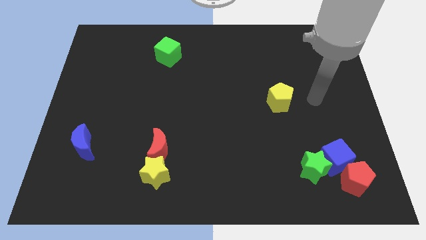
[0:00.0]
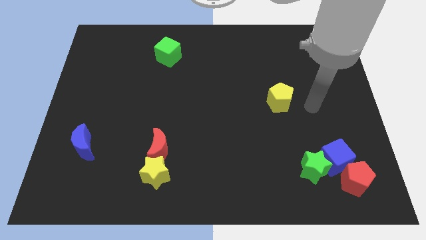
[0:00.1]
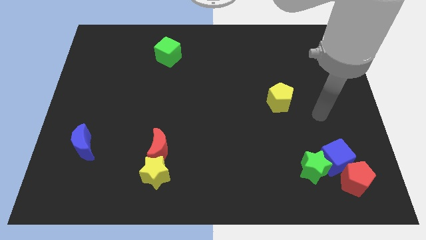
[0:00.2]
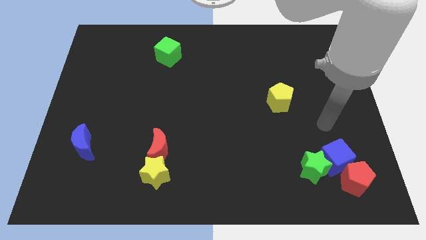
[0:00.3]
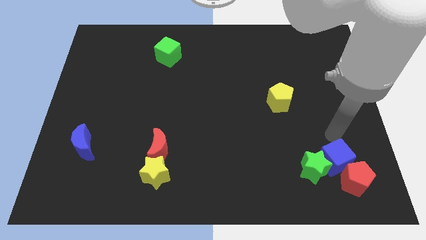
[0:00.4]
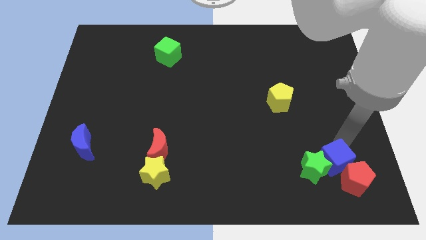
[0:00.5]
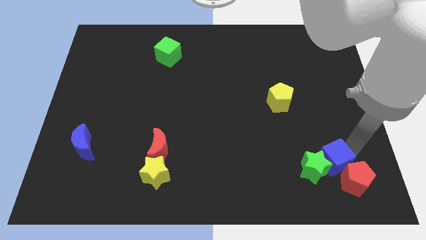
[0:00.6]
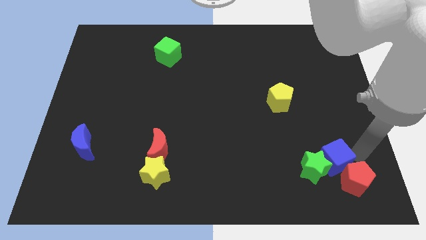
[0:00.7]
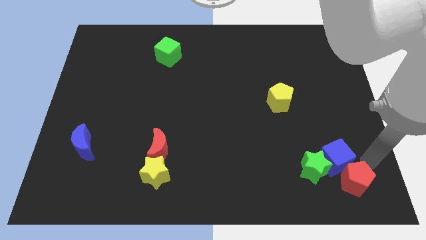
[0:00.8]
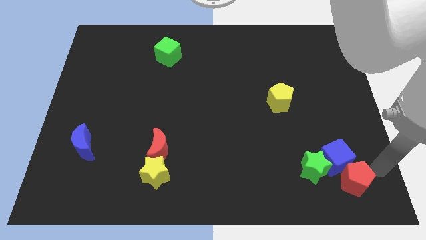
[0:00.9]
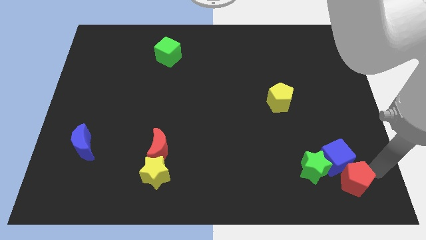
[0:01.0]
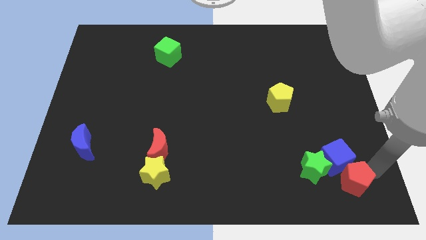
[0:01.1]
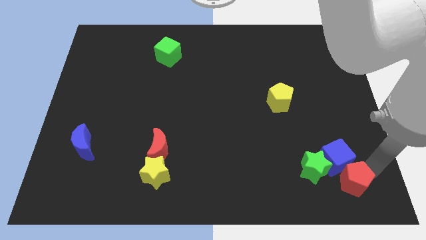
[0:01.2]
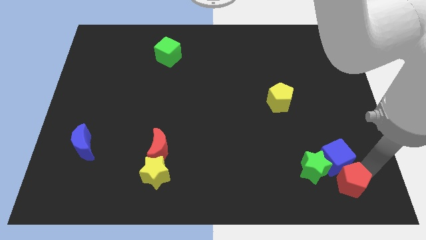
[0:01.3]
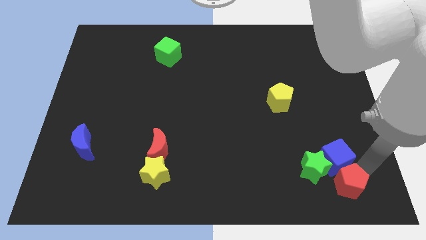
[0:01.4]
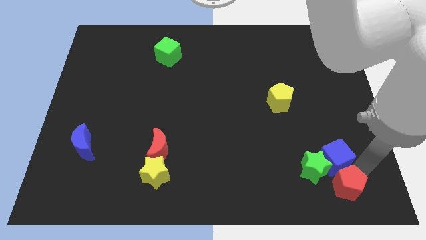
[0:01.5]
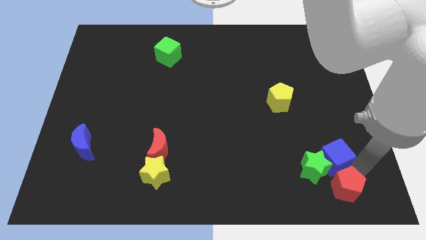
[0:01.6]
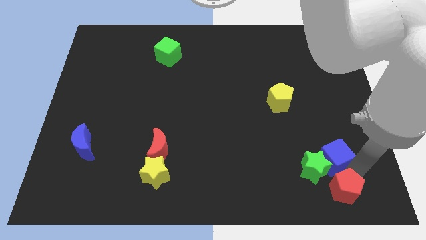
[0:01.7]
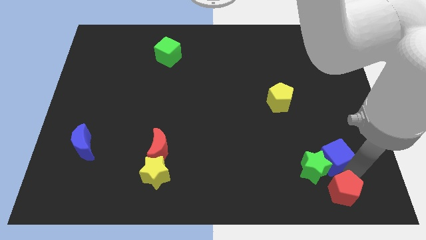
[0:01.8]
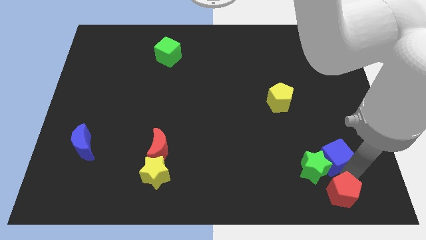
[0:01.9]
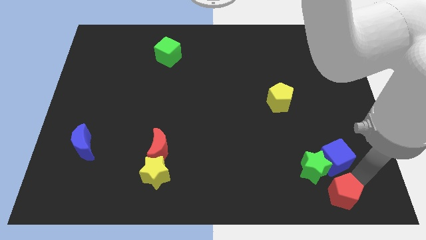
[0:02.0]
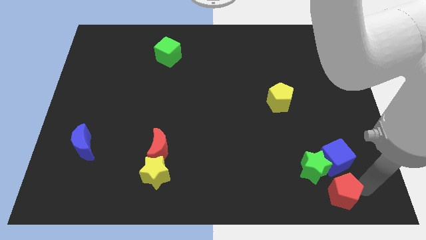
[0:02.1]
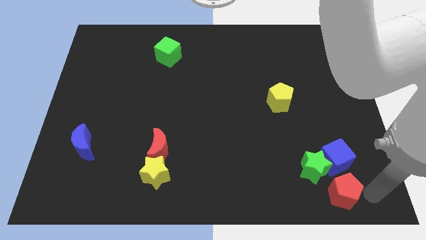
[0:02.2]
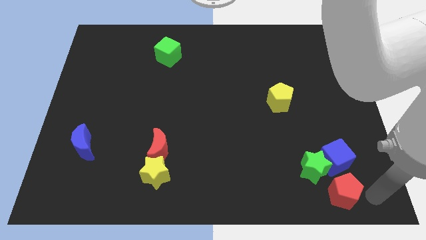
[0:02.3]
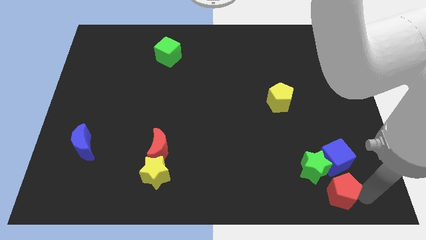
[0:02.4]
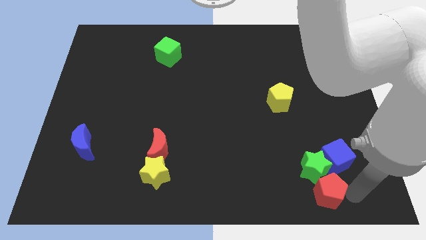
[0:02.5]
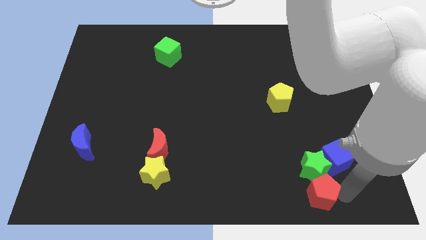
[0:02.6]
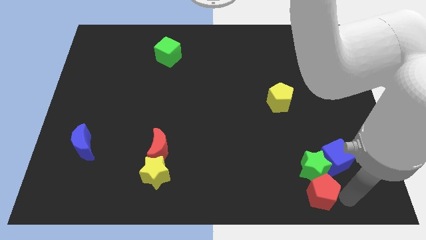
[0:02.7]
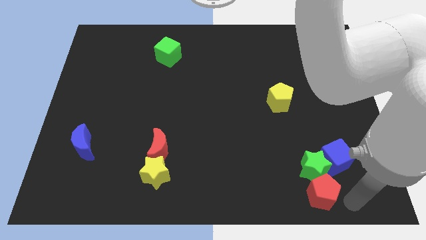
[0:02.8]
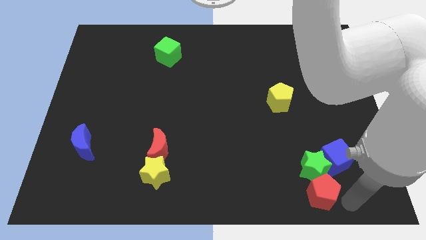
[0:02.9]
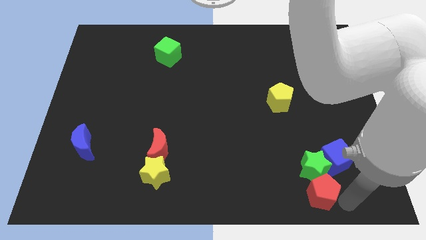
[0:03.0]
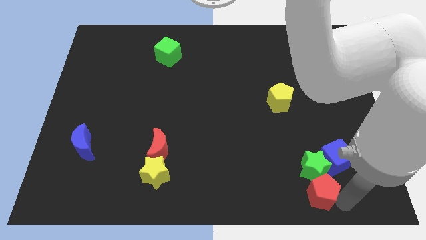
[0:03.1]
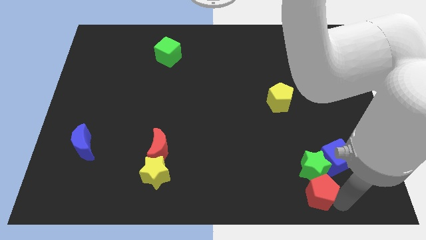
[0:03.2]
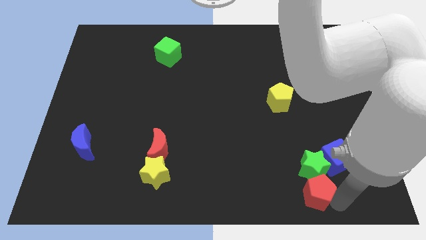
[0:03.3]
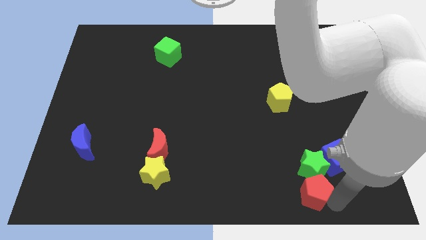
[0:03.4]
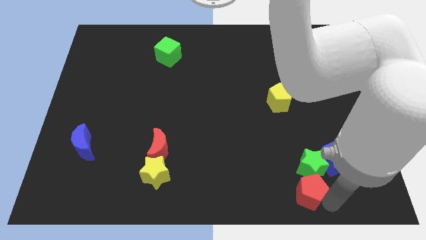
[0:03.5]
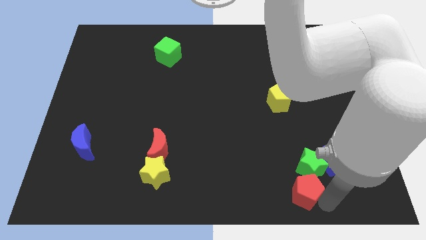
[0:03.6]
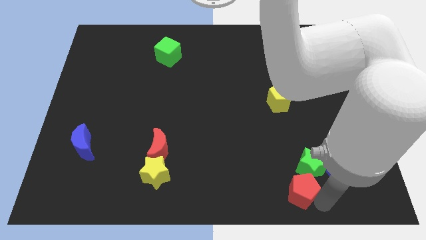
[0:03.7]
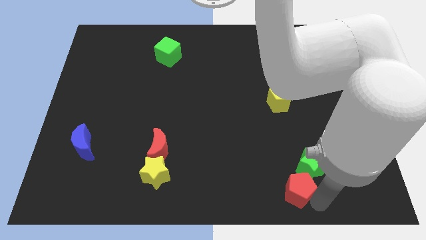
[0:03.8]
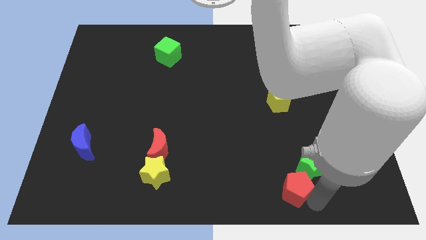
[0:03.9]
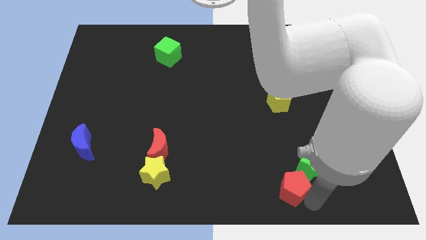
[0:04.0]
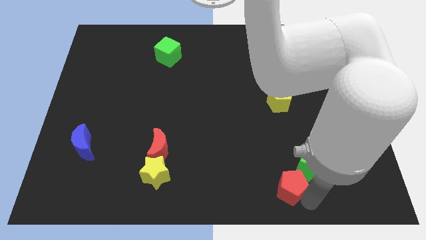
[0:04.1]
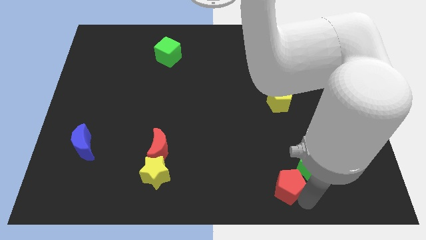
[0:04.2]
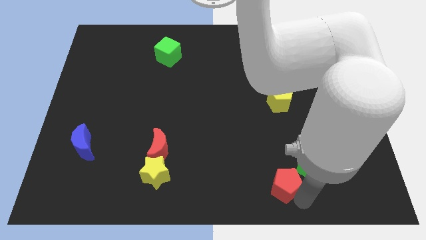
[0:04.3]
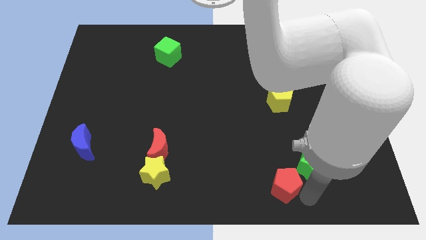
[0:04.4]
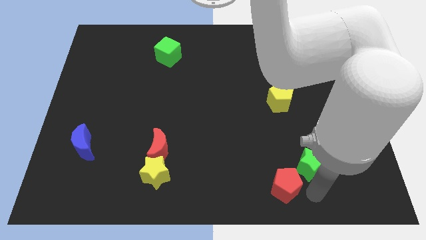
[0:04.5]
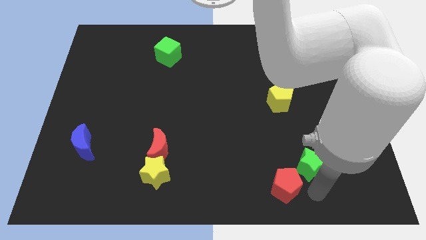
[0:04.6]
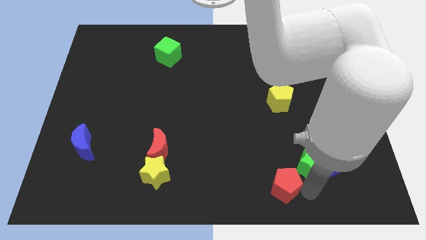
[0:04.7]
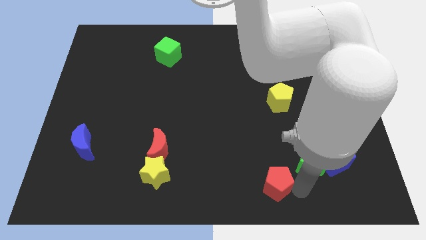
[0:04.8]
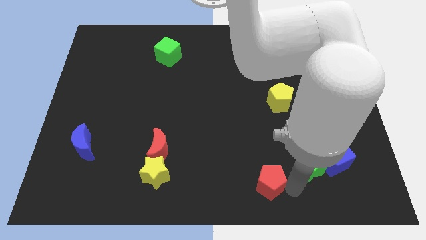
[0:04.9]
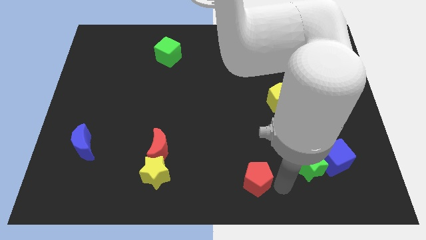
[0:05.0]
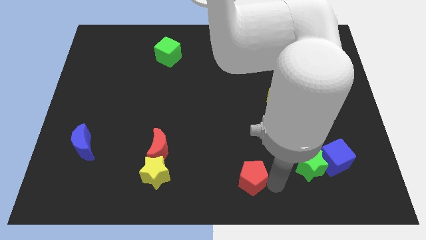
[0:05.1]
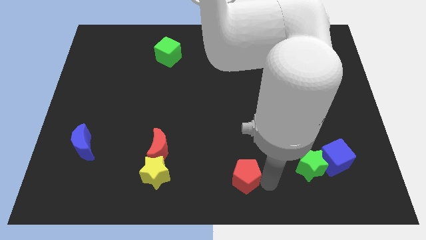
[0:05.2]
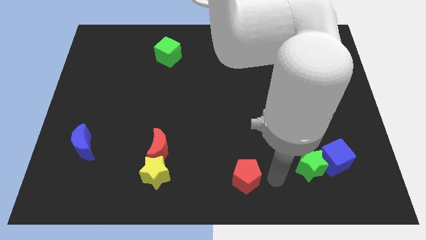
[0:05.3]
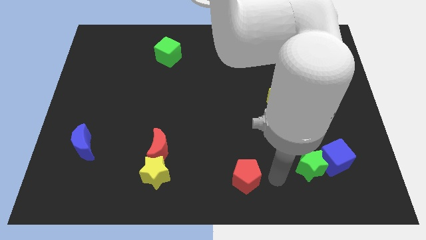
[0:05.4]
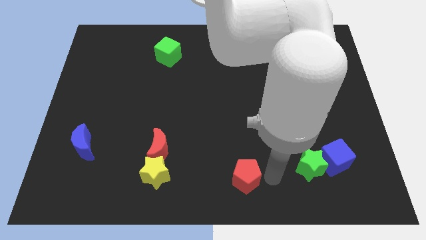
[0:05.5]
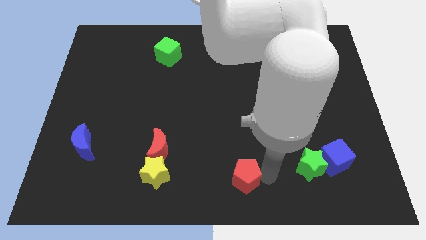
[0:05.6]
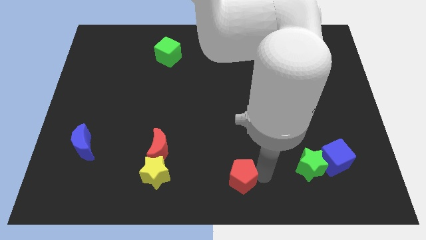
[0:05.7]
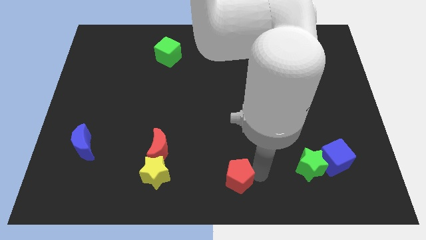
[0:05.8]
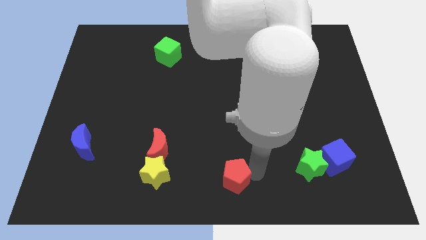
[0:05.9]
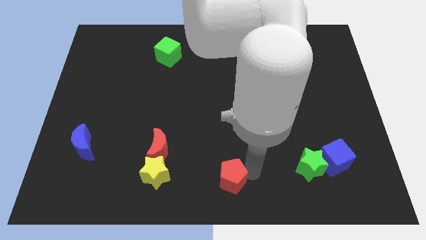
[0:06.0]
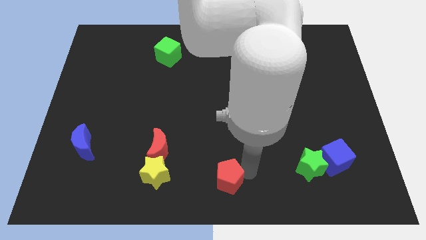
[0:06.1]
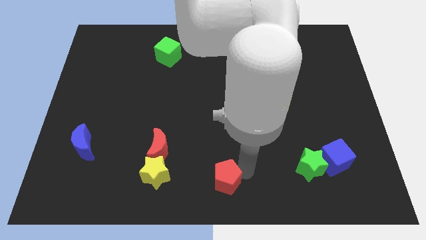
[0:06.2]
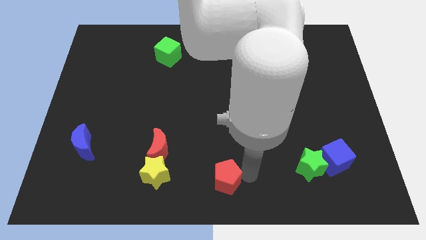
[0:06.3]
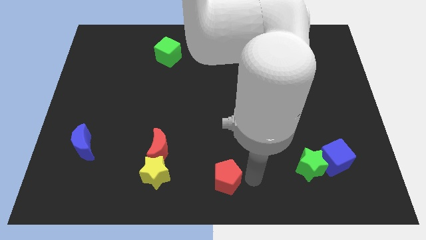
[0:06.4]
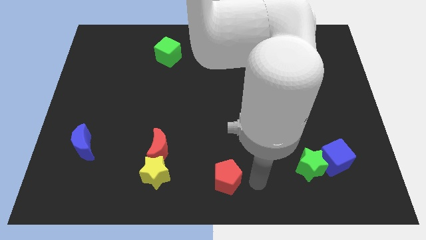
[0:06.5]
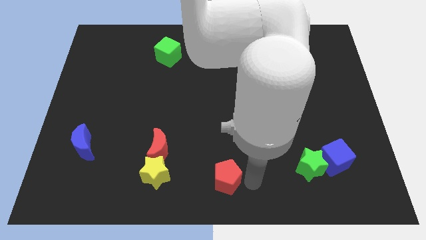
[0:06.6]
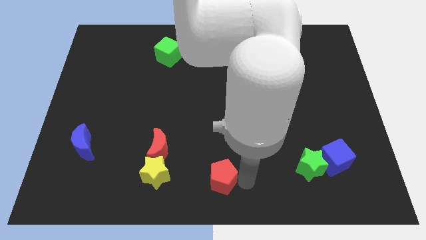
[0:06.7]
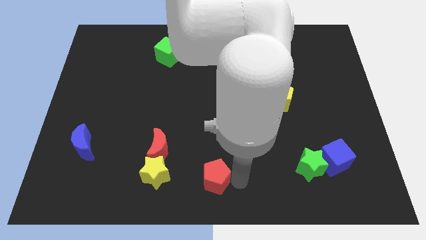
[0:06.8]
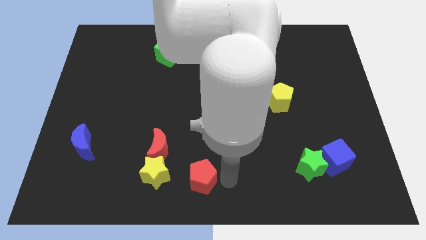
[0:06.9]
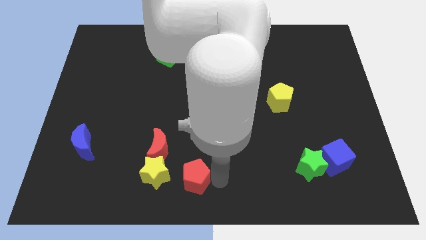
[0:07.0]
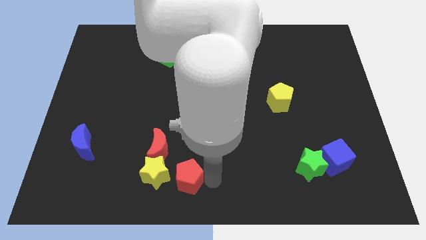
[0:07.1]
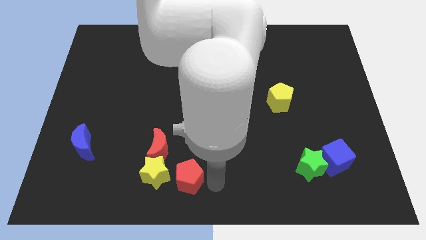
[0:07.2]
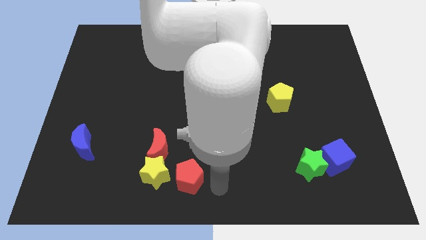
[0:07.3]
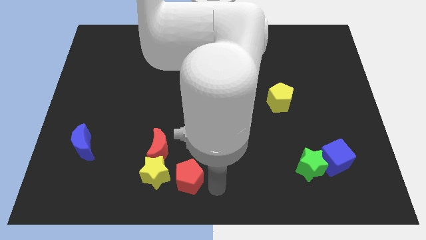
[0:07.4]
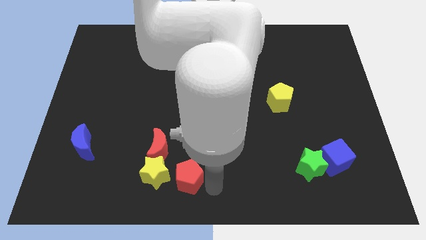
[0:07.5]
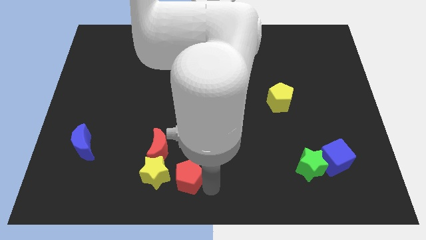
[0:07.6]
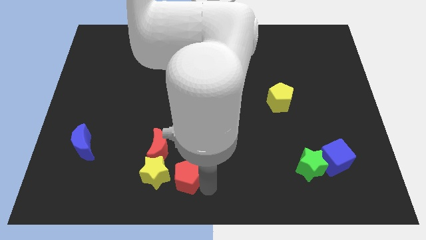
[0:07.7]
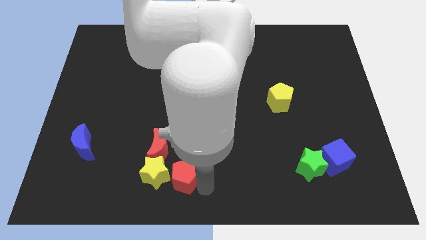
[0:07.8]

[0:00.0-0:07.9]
push the red pentagon towards the yellow star
